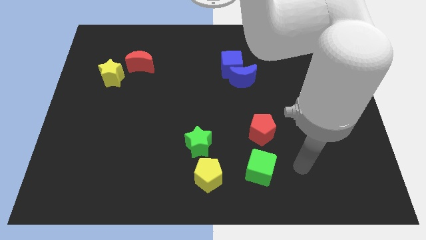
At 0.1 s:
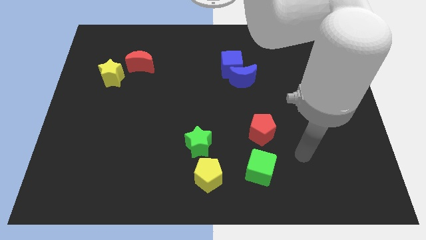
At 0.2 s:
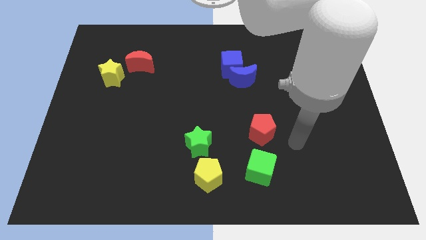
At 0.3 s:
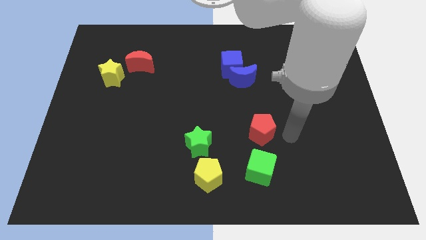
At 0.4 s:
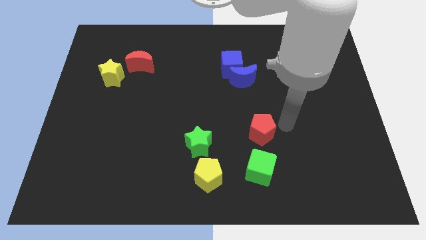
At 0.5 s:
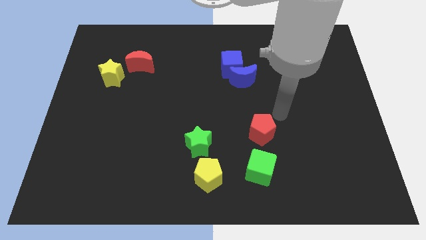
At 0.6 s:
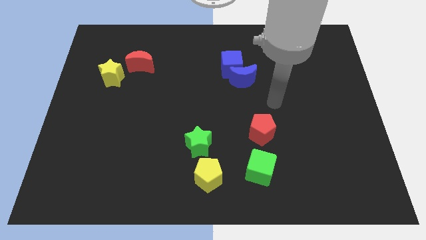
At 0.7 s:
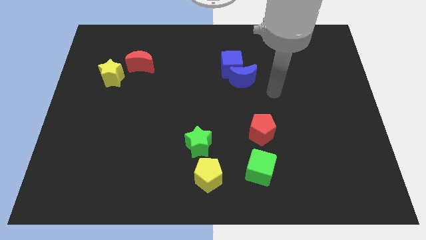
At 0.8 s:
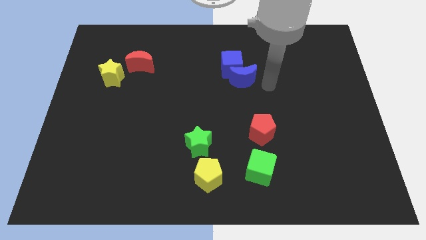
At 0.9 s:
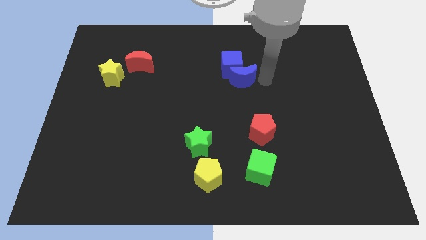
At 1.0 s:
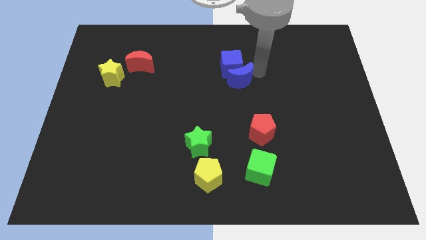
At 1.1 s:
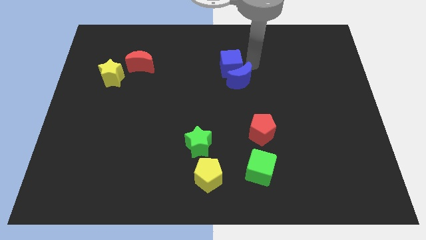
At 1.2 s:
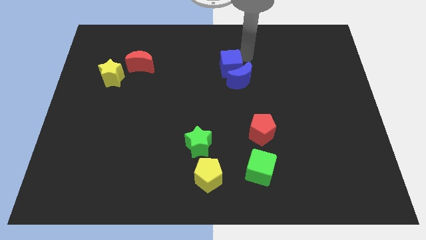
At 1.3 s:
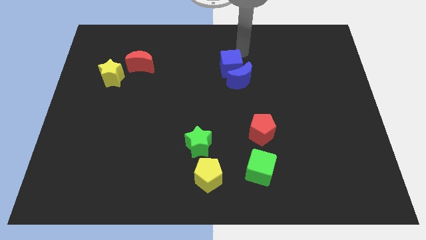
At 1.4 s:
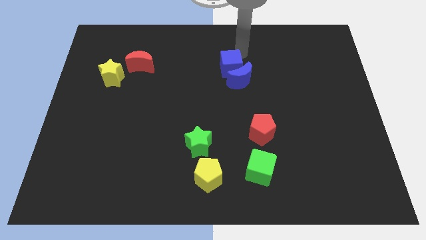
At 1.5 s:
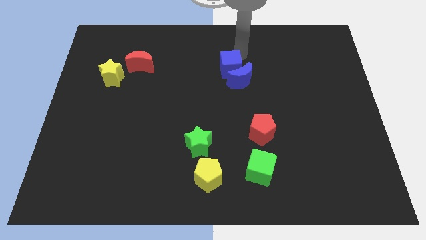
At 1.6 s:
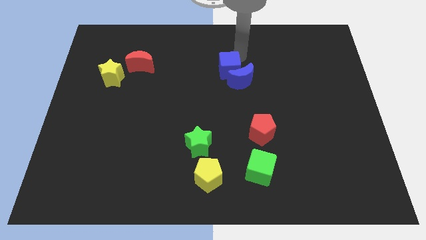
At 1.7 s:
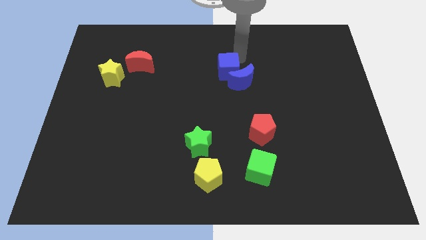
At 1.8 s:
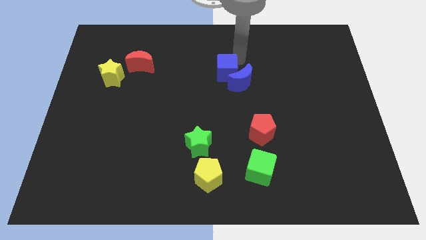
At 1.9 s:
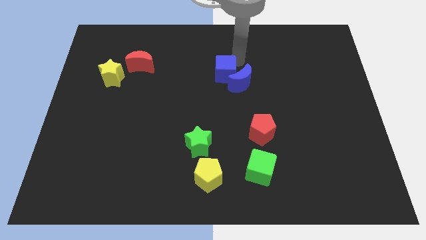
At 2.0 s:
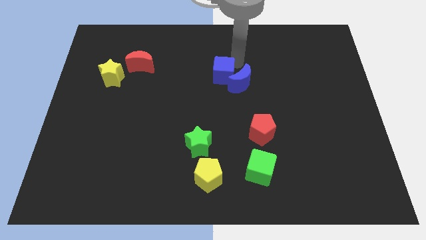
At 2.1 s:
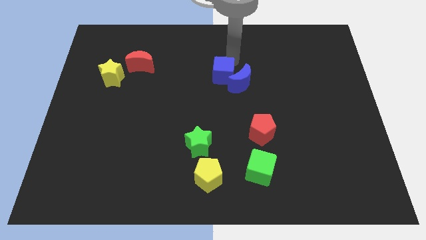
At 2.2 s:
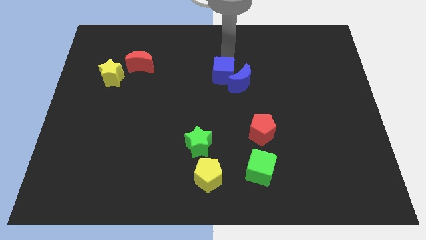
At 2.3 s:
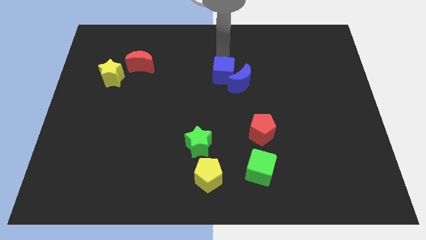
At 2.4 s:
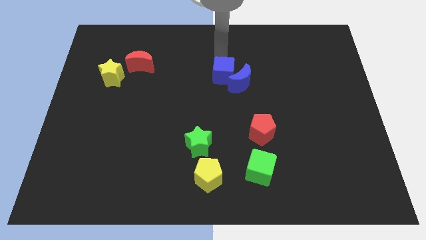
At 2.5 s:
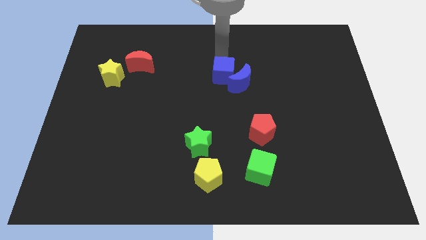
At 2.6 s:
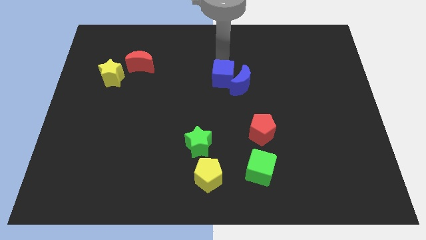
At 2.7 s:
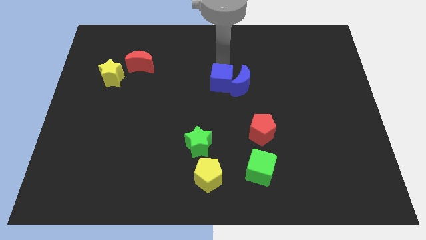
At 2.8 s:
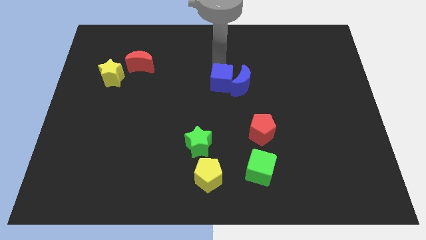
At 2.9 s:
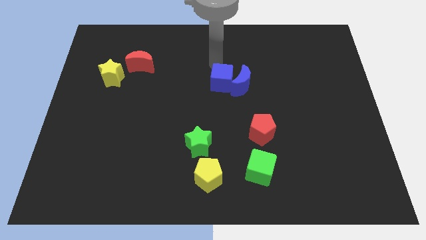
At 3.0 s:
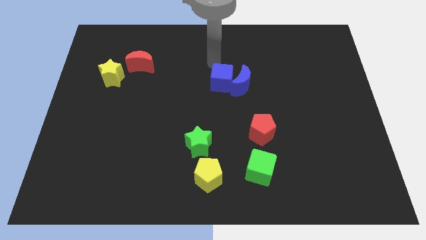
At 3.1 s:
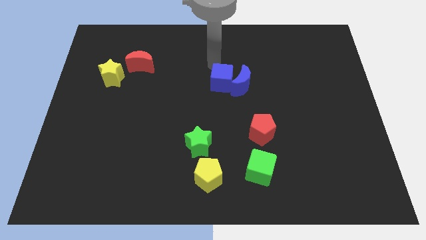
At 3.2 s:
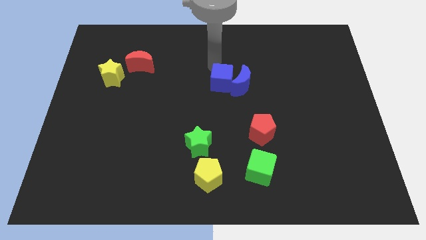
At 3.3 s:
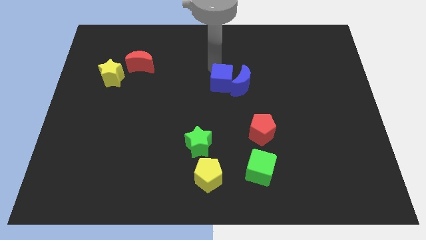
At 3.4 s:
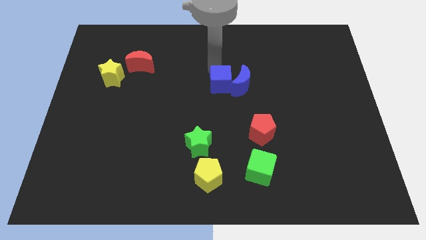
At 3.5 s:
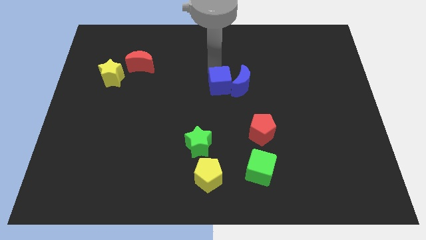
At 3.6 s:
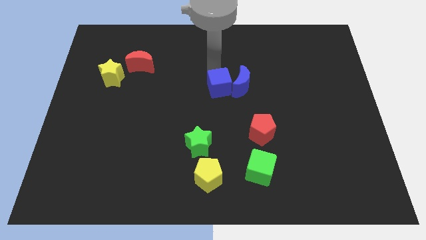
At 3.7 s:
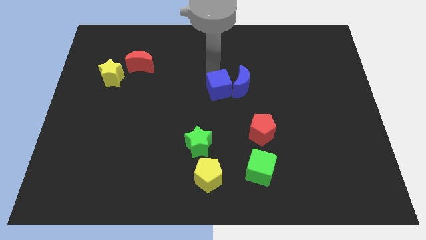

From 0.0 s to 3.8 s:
slightly move the blue cube downwards

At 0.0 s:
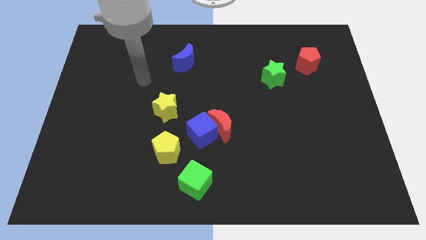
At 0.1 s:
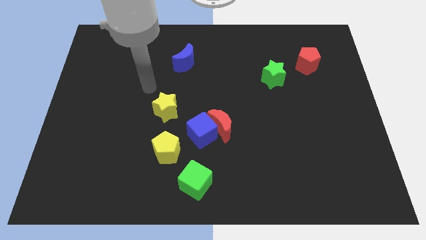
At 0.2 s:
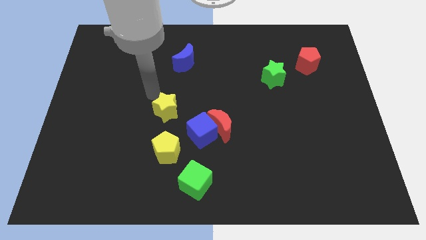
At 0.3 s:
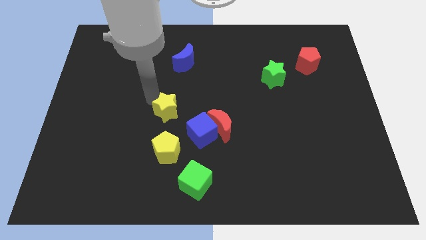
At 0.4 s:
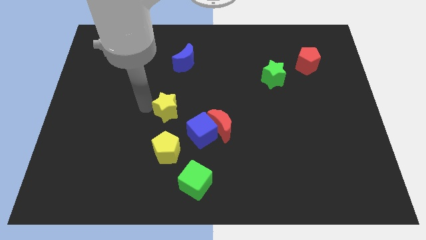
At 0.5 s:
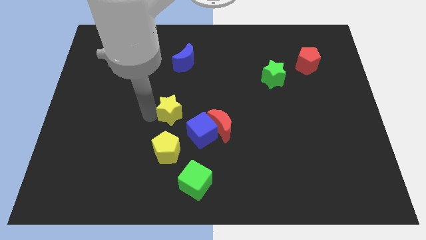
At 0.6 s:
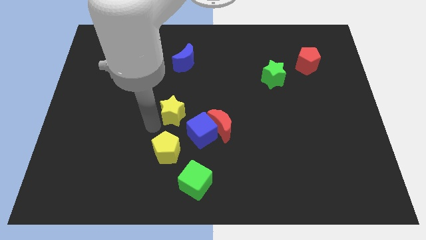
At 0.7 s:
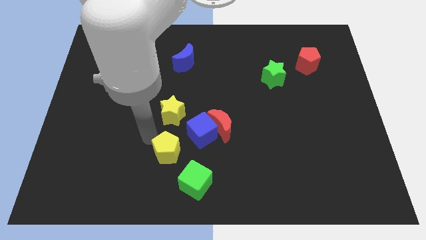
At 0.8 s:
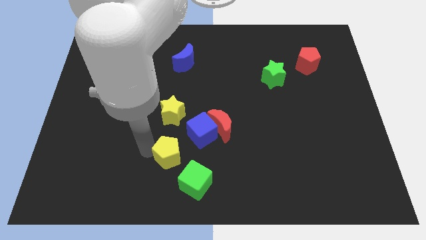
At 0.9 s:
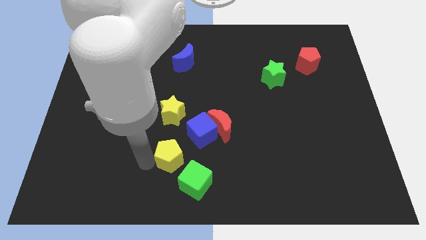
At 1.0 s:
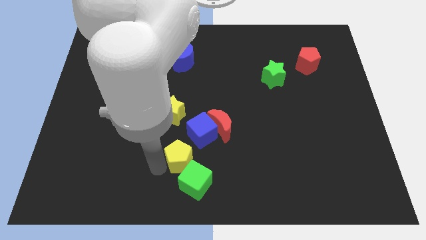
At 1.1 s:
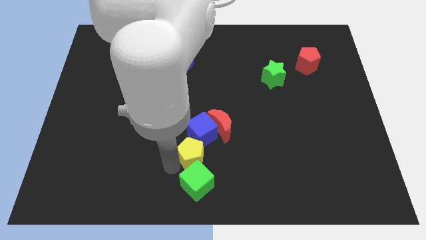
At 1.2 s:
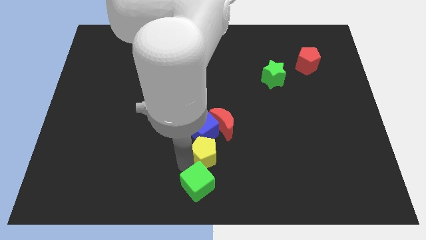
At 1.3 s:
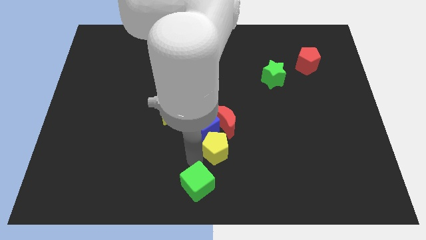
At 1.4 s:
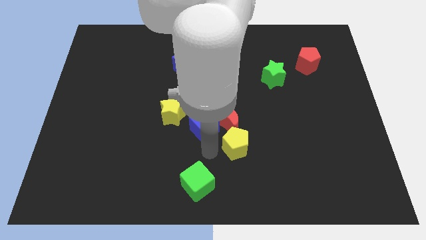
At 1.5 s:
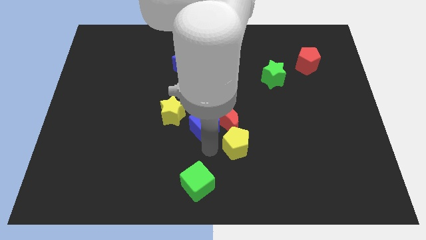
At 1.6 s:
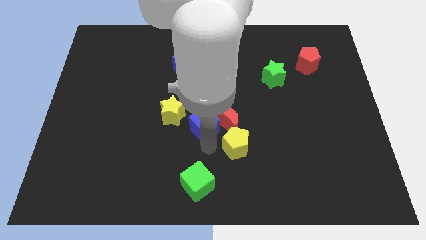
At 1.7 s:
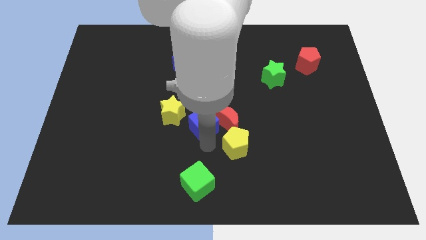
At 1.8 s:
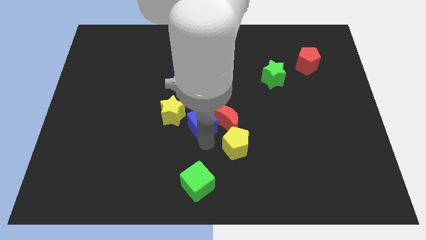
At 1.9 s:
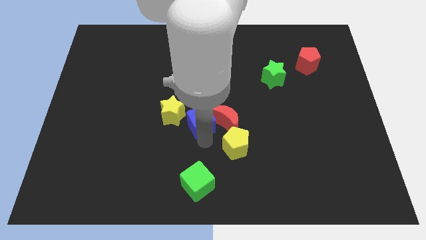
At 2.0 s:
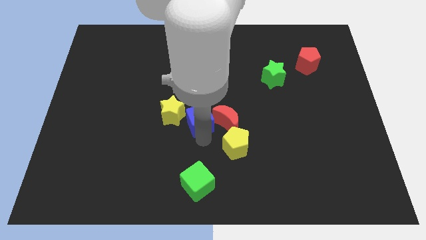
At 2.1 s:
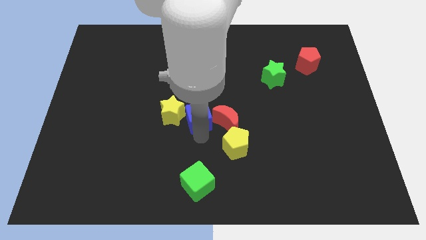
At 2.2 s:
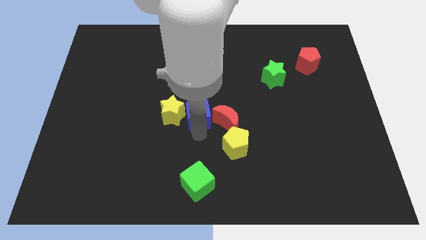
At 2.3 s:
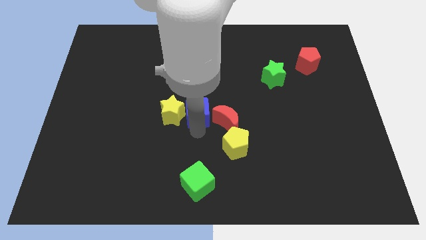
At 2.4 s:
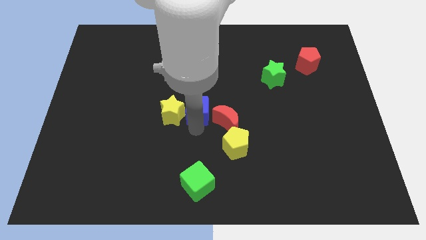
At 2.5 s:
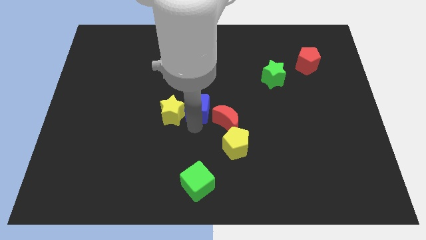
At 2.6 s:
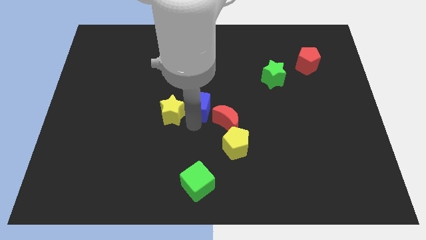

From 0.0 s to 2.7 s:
slide the blue cube up a little

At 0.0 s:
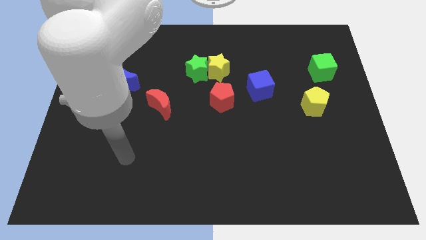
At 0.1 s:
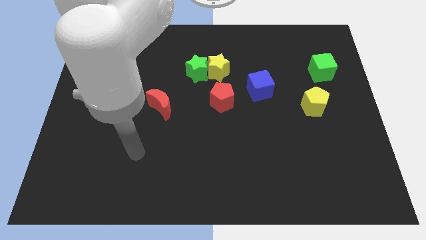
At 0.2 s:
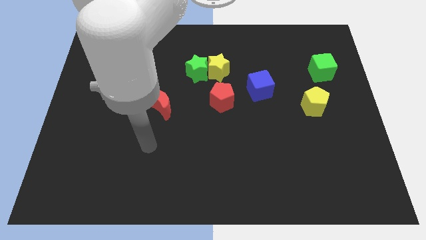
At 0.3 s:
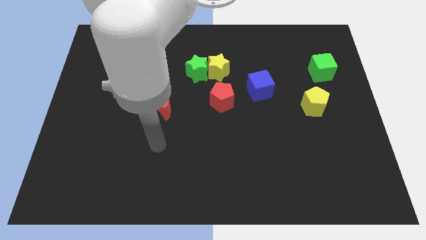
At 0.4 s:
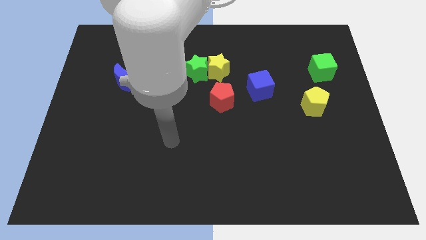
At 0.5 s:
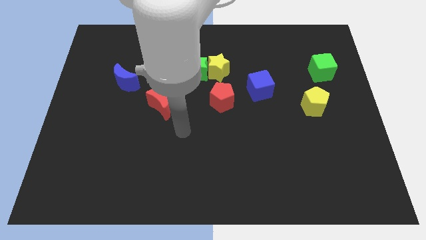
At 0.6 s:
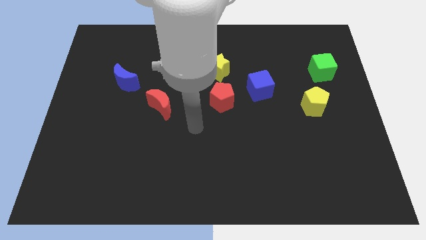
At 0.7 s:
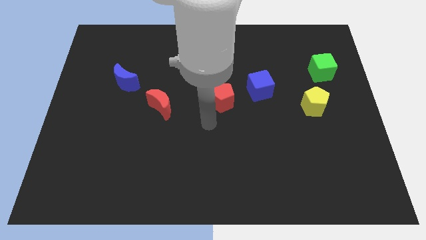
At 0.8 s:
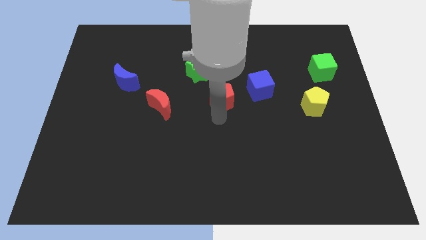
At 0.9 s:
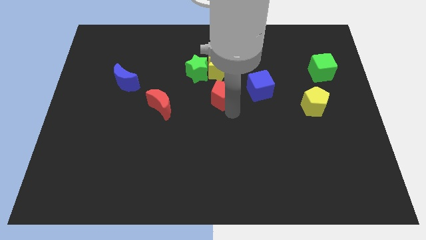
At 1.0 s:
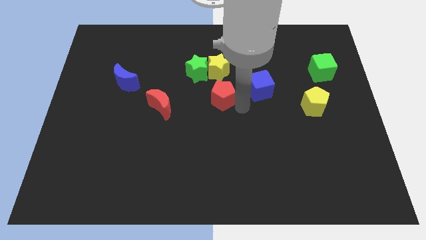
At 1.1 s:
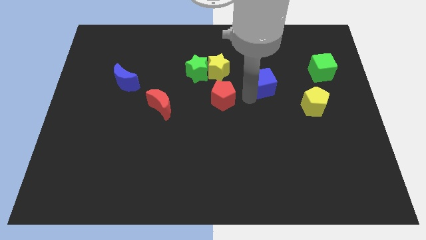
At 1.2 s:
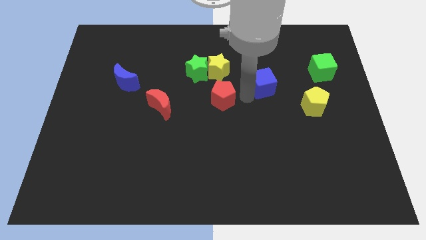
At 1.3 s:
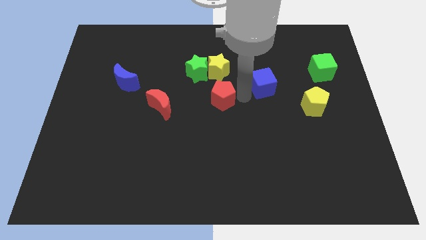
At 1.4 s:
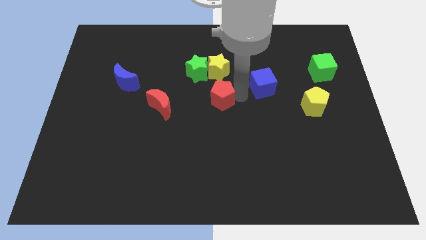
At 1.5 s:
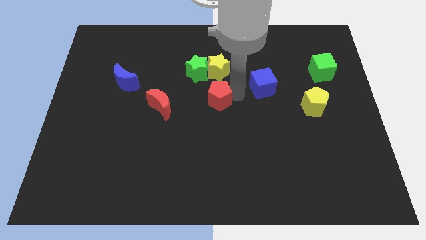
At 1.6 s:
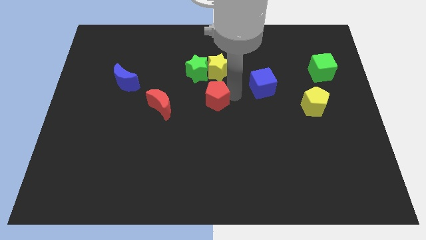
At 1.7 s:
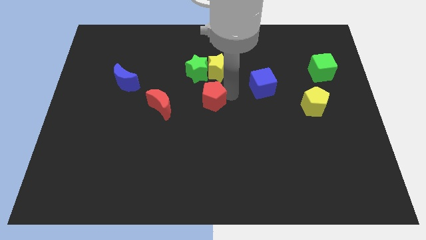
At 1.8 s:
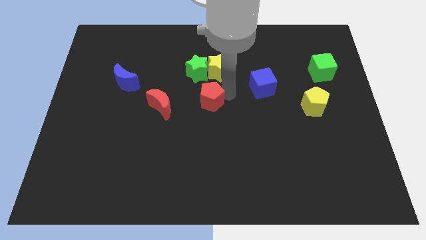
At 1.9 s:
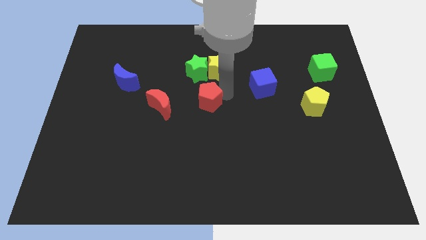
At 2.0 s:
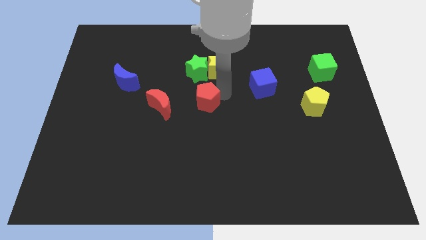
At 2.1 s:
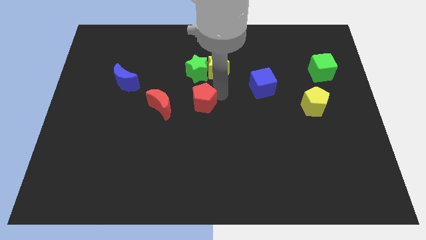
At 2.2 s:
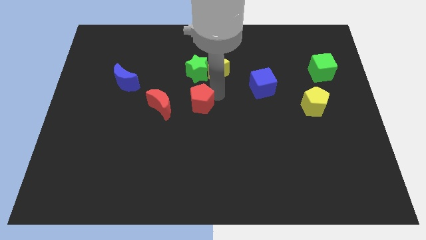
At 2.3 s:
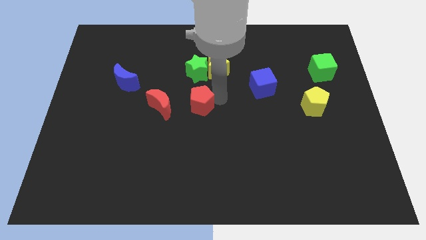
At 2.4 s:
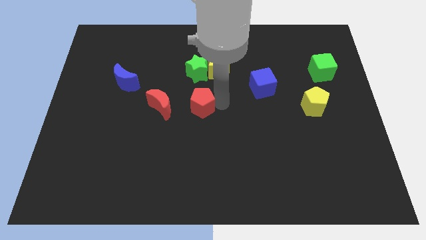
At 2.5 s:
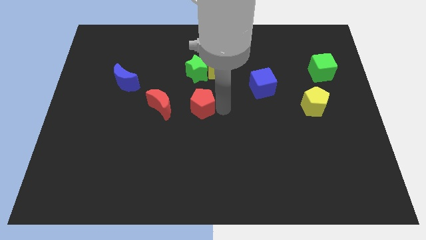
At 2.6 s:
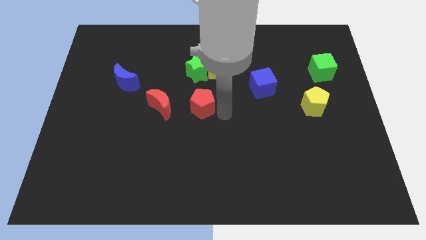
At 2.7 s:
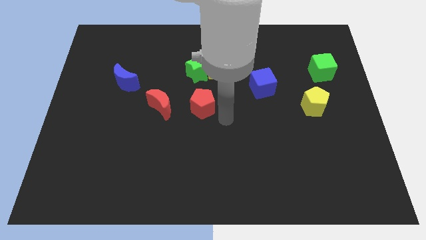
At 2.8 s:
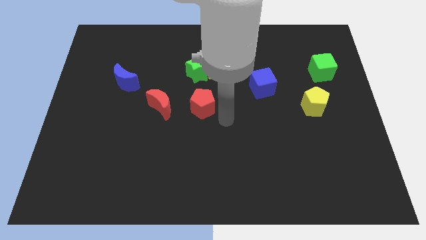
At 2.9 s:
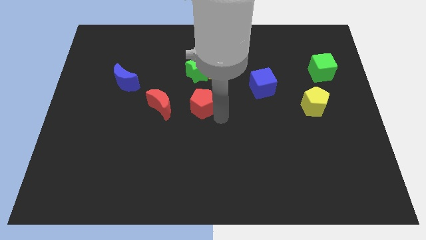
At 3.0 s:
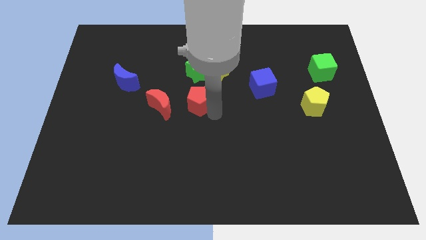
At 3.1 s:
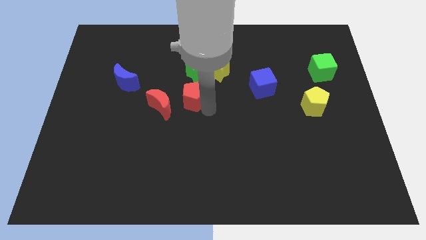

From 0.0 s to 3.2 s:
slightly move the red pentagon left
